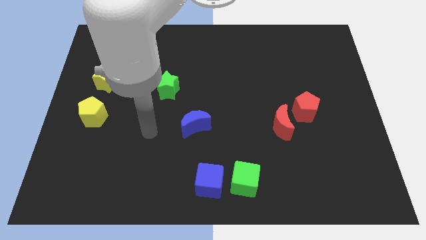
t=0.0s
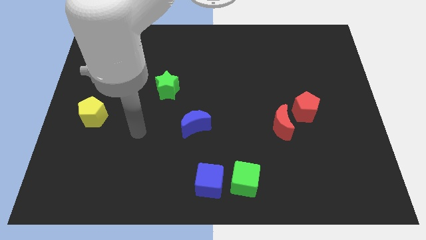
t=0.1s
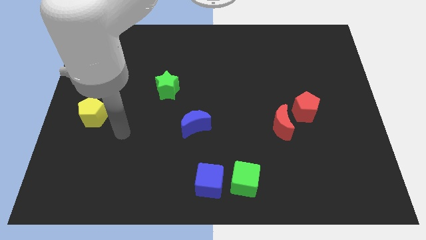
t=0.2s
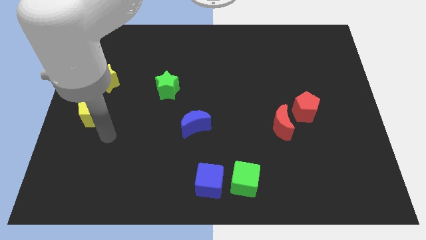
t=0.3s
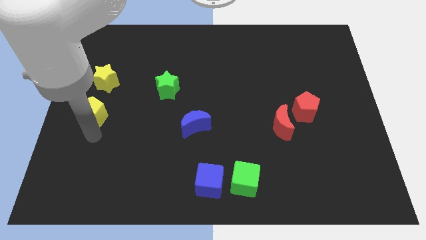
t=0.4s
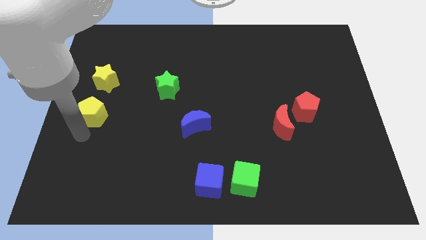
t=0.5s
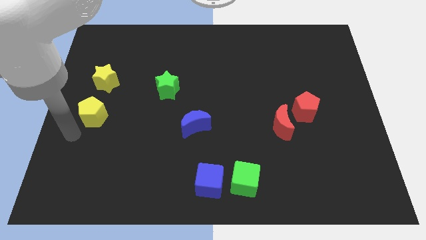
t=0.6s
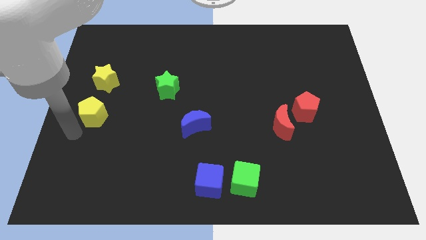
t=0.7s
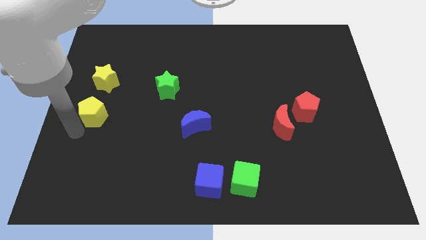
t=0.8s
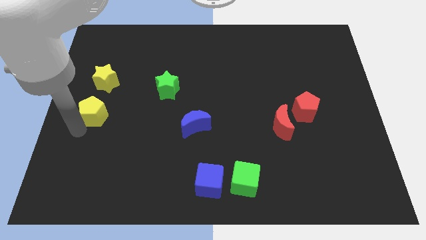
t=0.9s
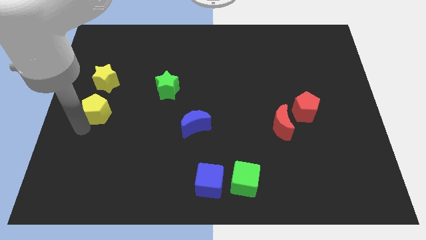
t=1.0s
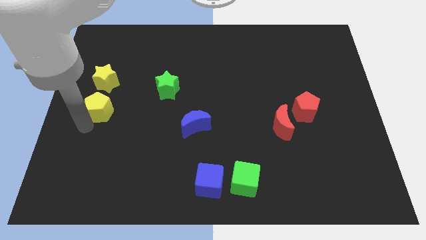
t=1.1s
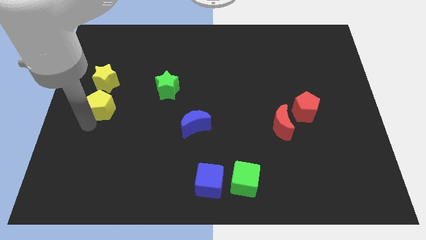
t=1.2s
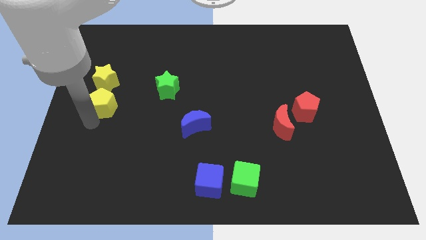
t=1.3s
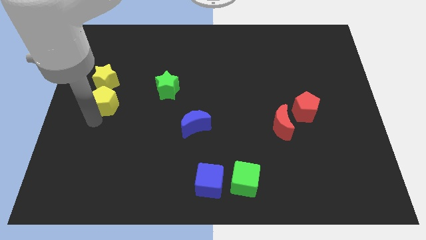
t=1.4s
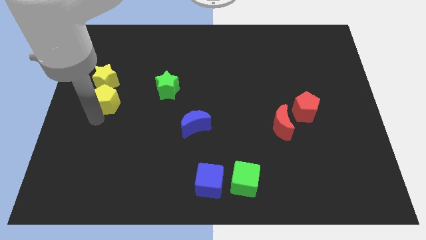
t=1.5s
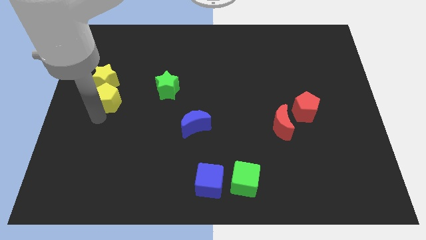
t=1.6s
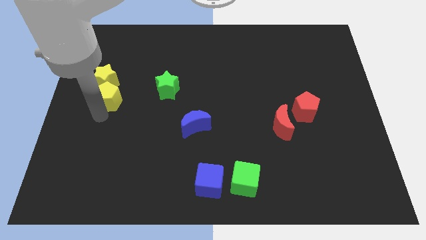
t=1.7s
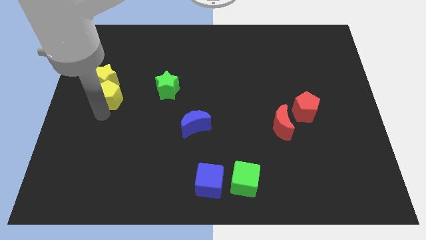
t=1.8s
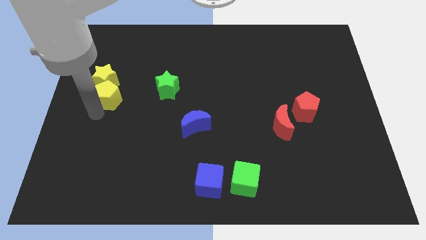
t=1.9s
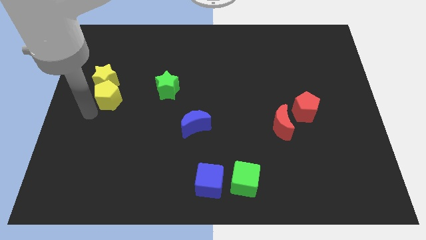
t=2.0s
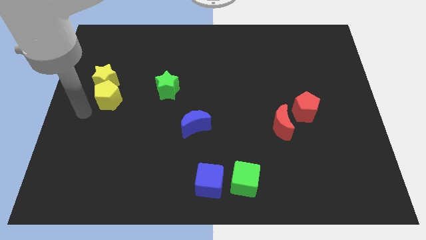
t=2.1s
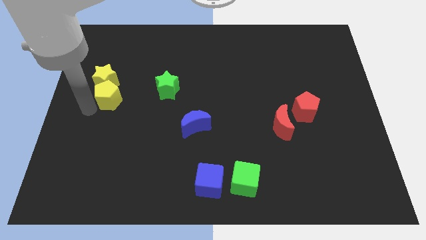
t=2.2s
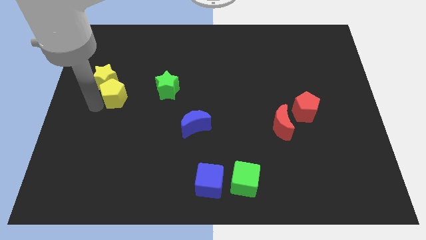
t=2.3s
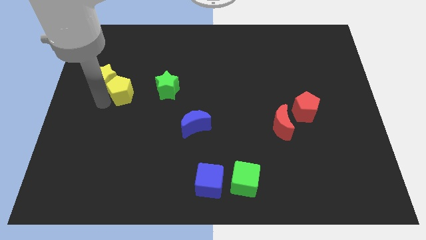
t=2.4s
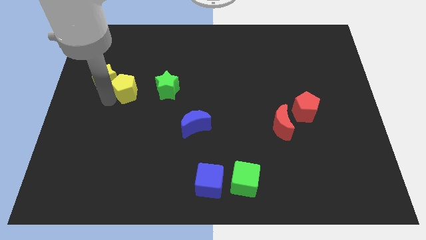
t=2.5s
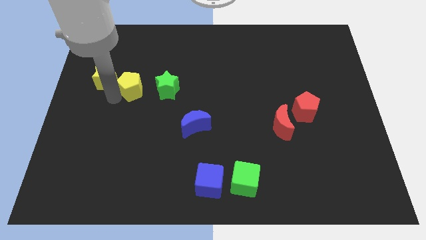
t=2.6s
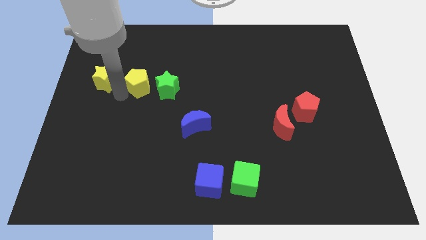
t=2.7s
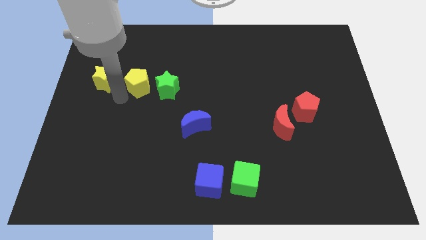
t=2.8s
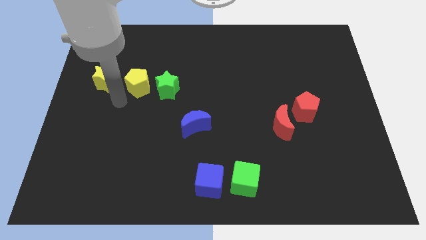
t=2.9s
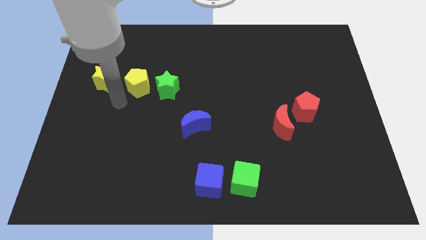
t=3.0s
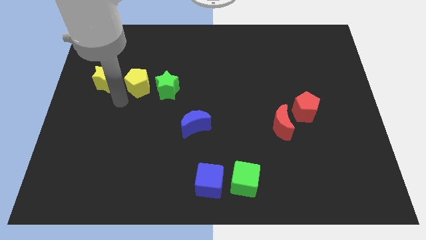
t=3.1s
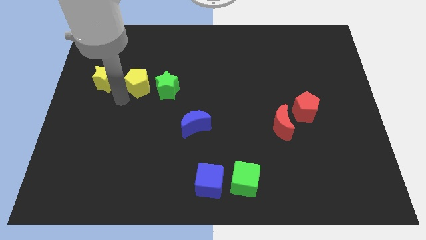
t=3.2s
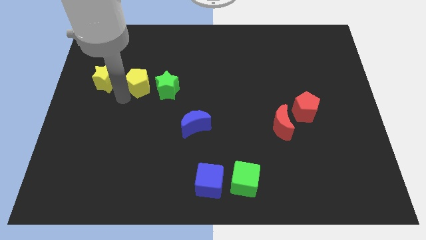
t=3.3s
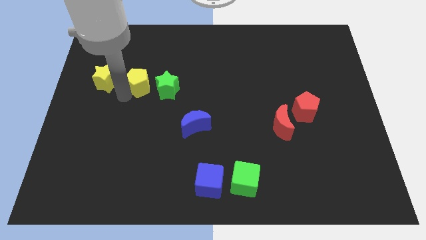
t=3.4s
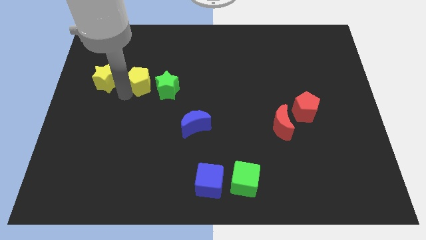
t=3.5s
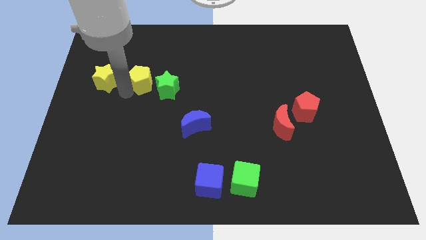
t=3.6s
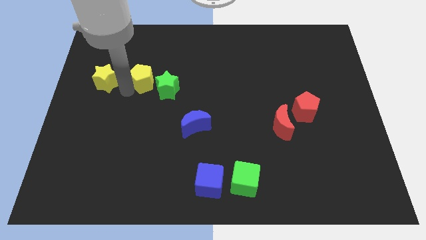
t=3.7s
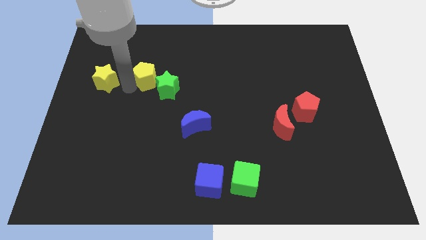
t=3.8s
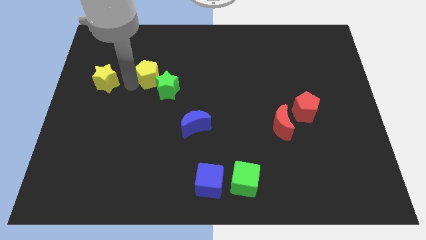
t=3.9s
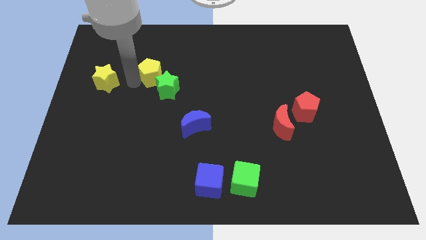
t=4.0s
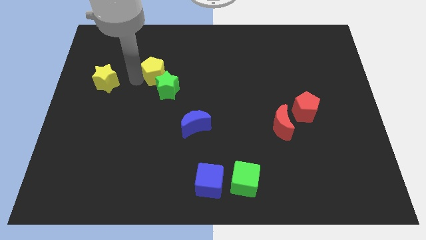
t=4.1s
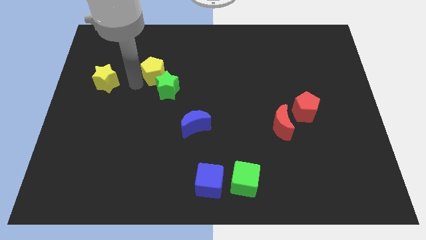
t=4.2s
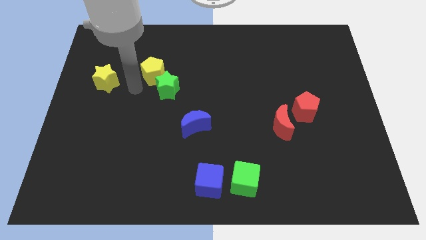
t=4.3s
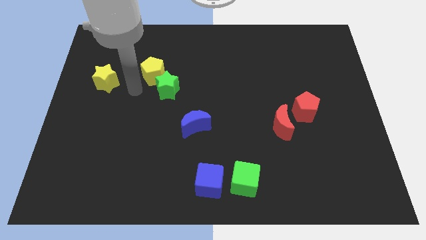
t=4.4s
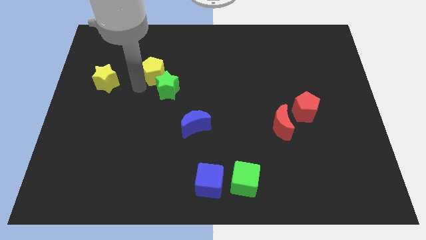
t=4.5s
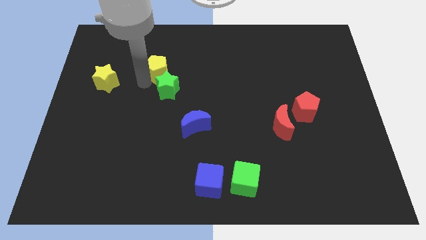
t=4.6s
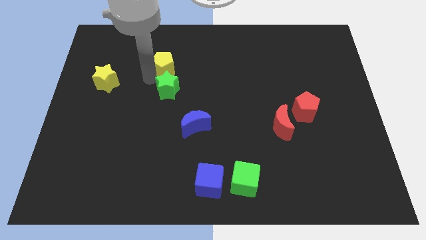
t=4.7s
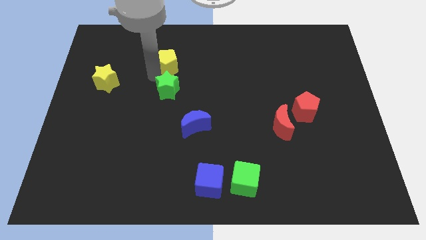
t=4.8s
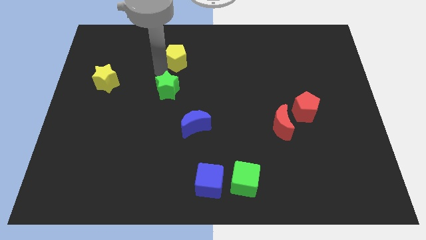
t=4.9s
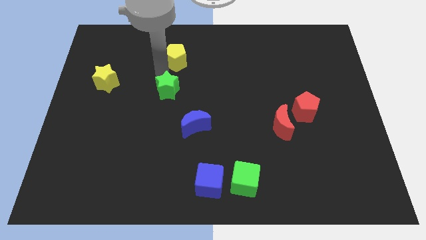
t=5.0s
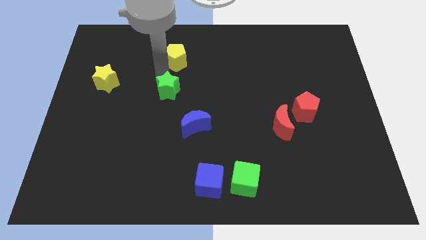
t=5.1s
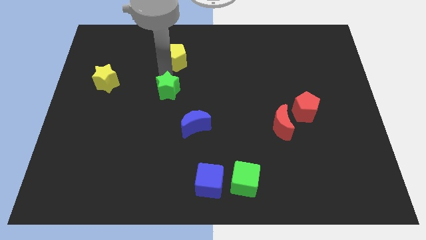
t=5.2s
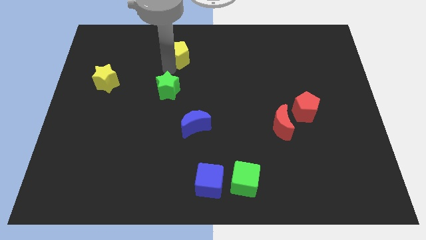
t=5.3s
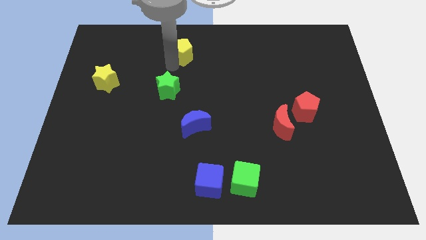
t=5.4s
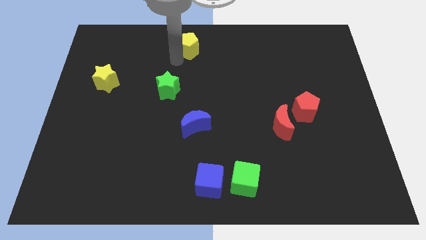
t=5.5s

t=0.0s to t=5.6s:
put the yellow pentagon to the top
